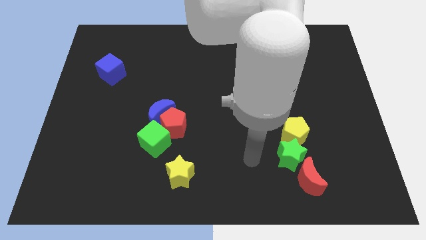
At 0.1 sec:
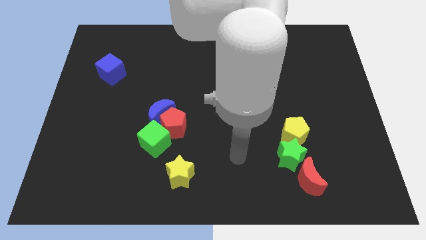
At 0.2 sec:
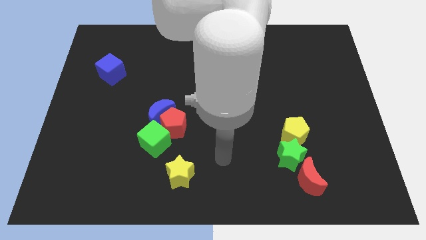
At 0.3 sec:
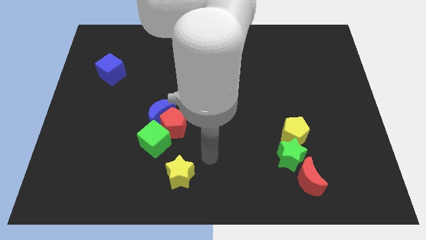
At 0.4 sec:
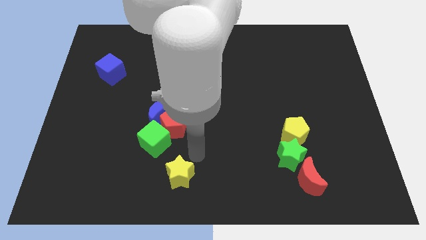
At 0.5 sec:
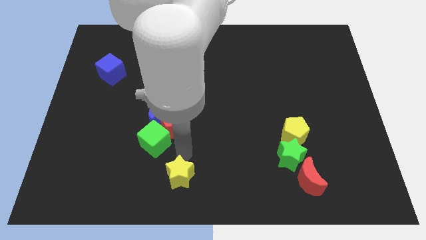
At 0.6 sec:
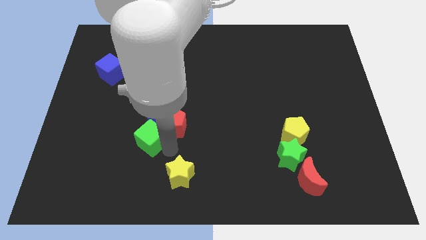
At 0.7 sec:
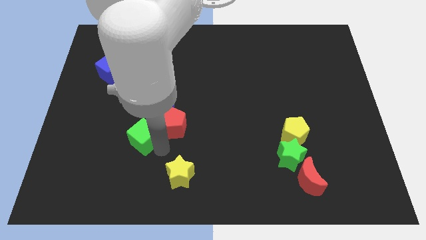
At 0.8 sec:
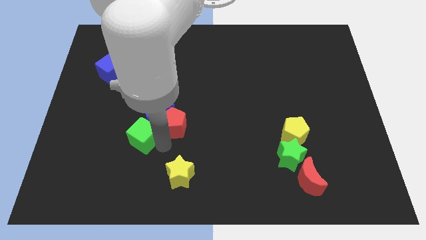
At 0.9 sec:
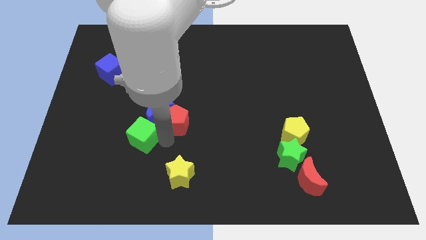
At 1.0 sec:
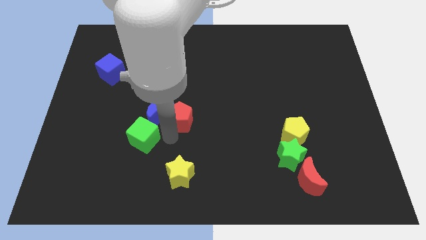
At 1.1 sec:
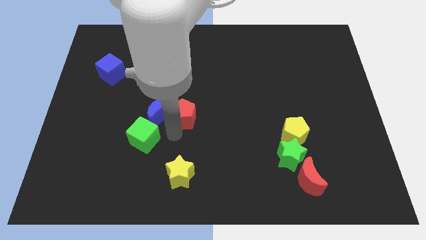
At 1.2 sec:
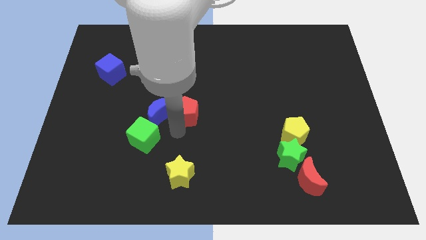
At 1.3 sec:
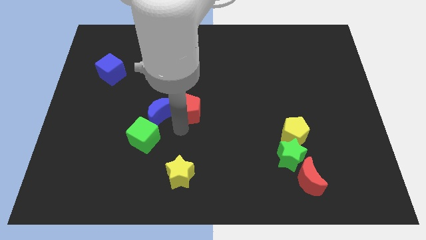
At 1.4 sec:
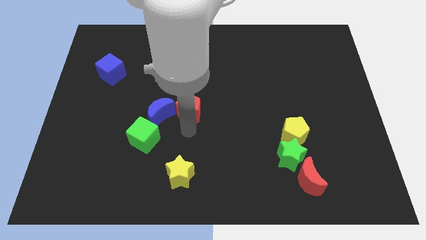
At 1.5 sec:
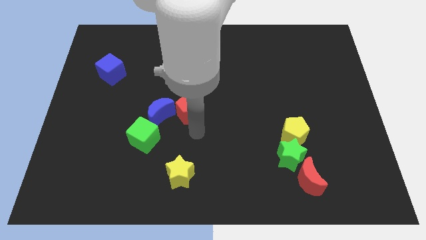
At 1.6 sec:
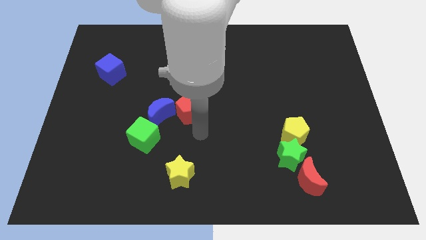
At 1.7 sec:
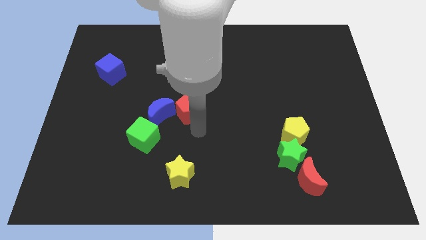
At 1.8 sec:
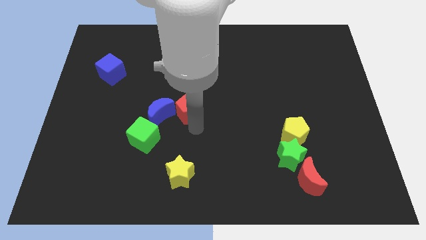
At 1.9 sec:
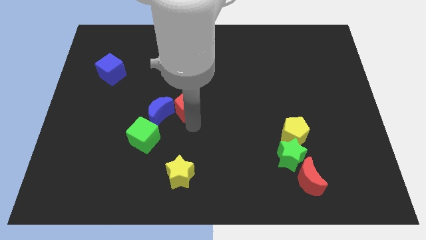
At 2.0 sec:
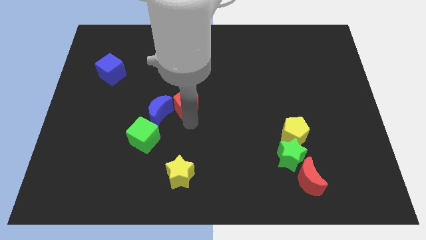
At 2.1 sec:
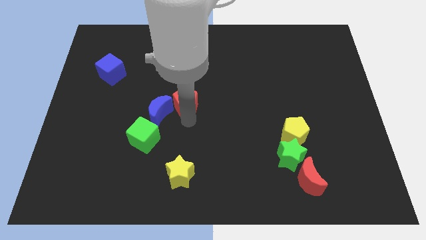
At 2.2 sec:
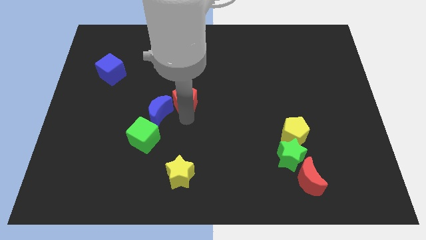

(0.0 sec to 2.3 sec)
push the red pentagon a little bit upwards

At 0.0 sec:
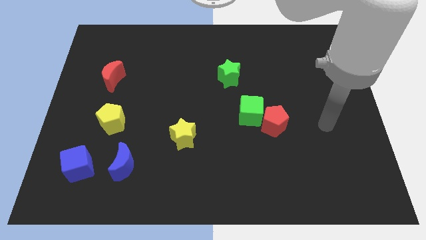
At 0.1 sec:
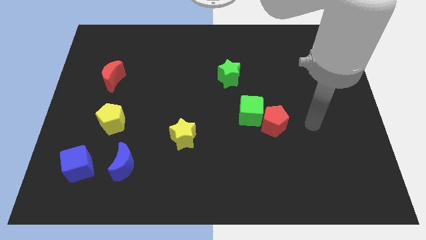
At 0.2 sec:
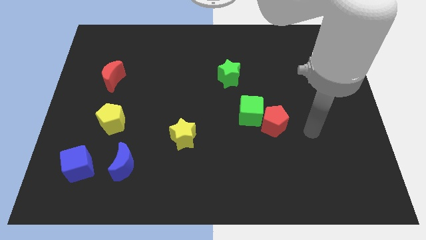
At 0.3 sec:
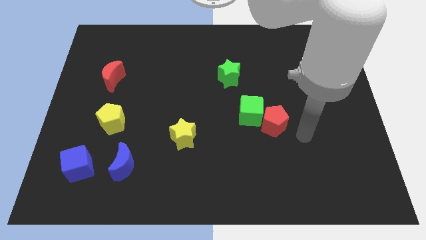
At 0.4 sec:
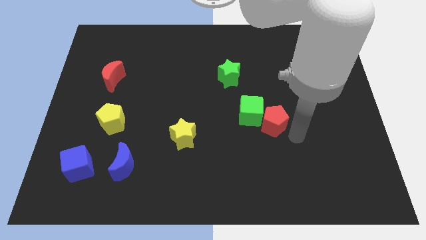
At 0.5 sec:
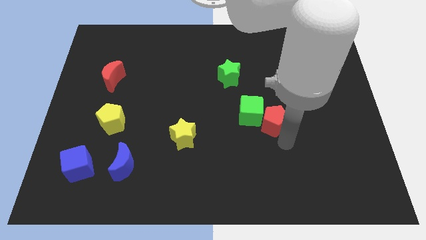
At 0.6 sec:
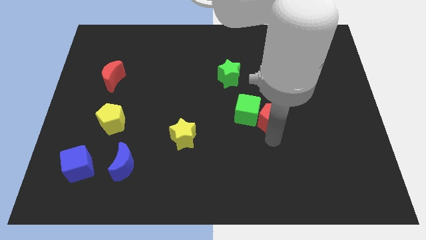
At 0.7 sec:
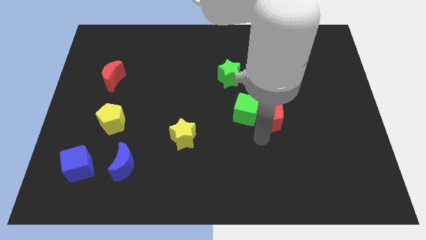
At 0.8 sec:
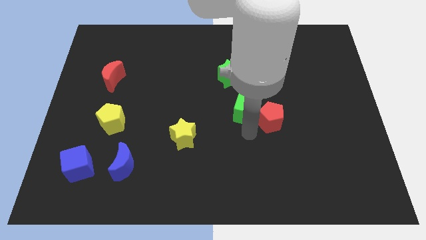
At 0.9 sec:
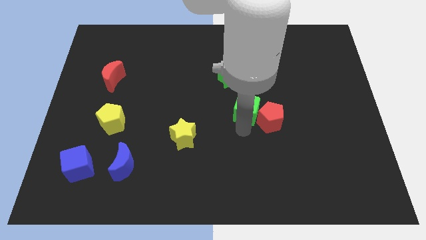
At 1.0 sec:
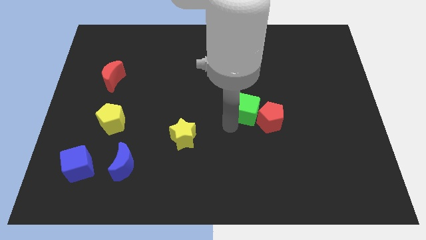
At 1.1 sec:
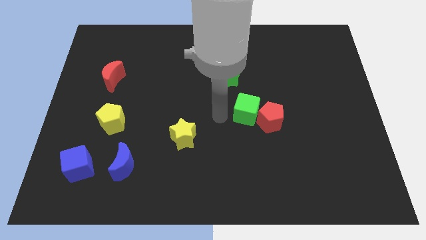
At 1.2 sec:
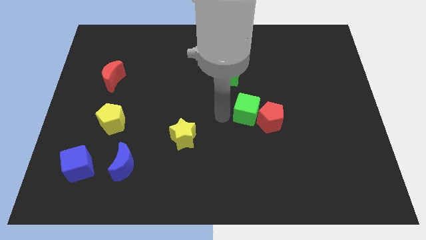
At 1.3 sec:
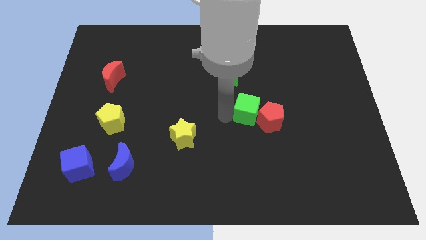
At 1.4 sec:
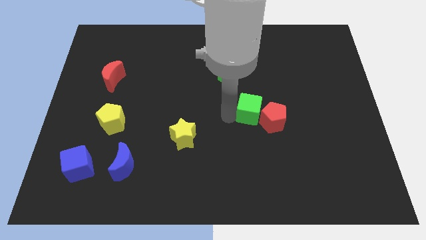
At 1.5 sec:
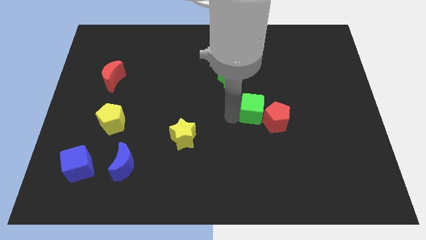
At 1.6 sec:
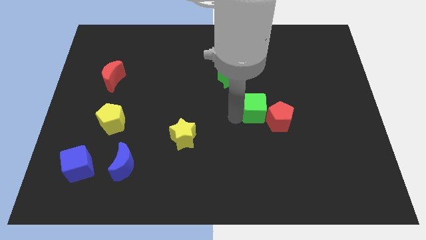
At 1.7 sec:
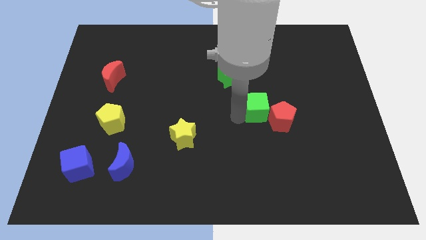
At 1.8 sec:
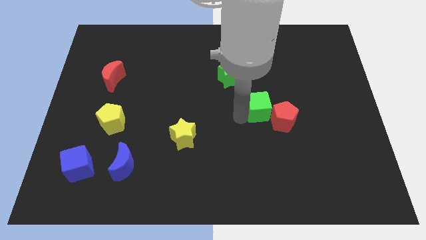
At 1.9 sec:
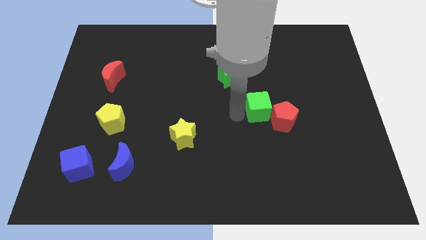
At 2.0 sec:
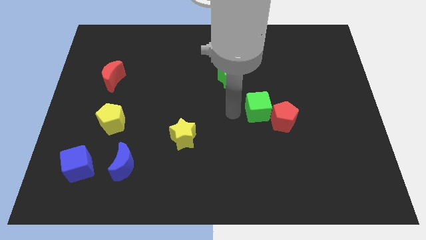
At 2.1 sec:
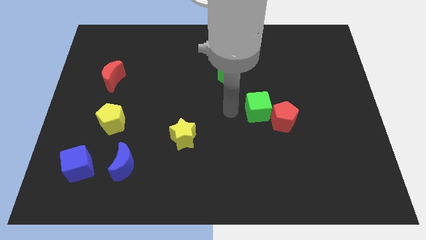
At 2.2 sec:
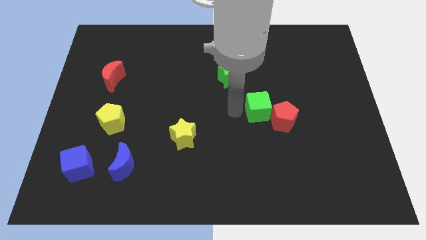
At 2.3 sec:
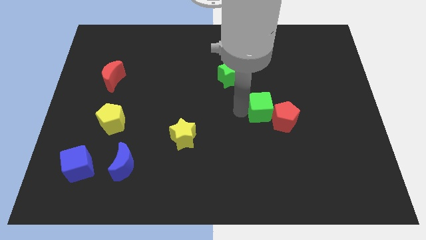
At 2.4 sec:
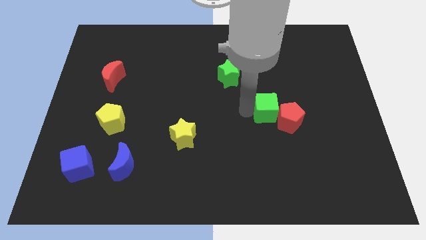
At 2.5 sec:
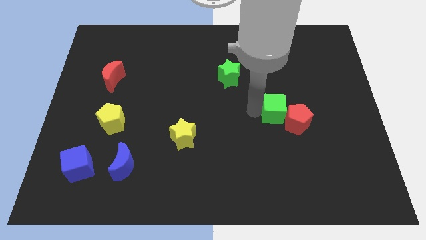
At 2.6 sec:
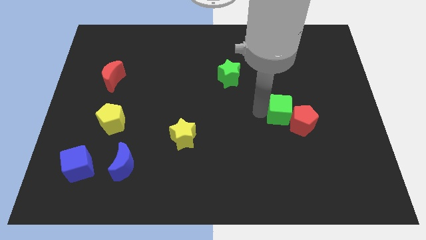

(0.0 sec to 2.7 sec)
slide the green cube a little right

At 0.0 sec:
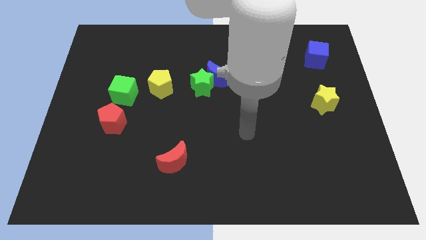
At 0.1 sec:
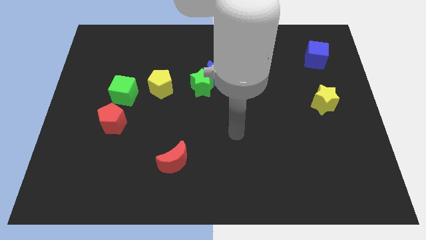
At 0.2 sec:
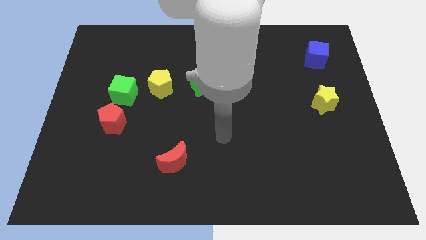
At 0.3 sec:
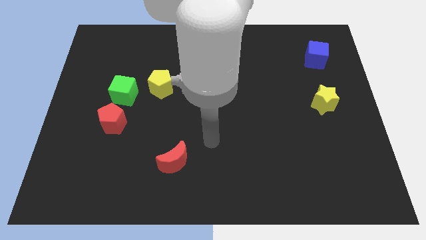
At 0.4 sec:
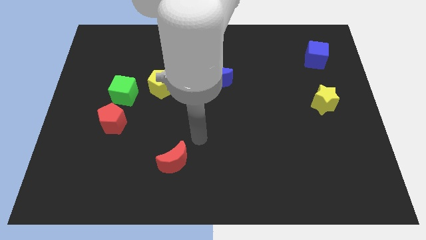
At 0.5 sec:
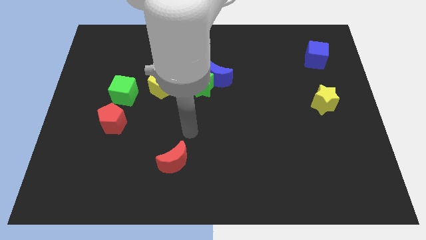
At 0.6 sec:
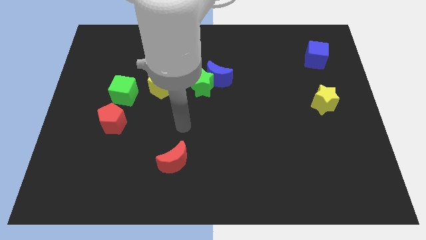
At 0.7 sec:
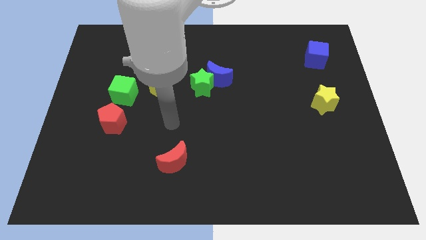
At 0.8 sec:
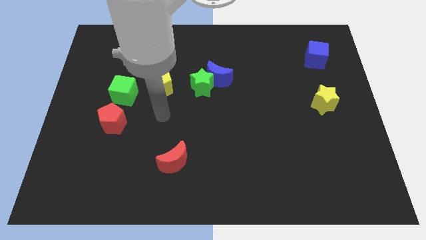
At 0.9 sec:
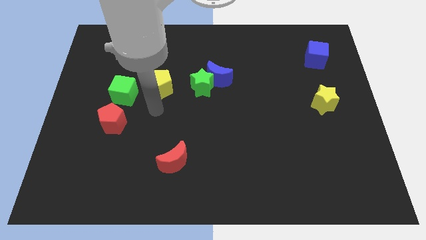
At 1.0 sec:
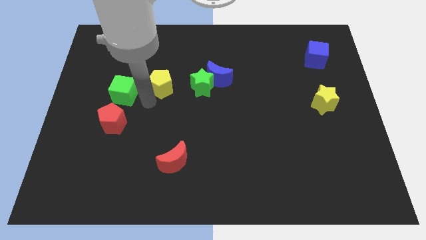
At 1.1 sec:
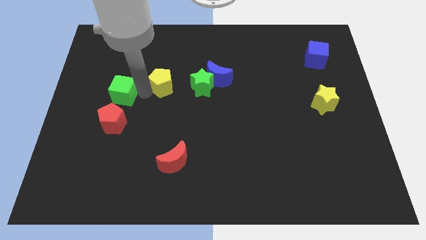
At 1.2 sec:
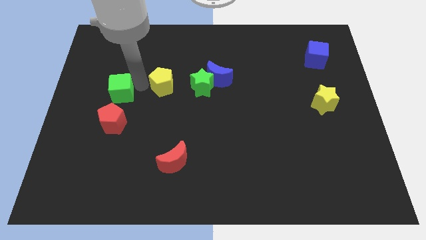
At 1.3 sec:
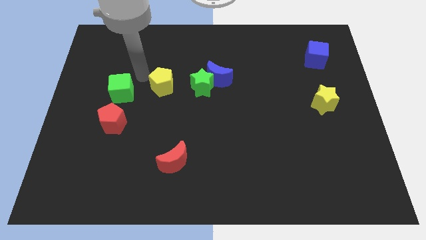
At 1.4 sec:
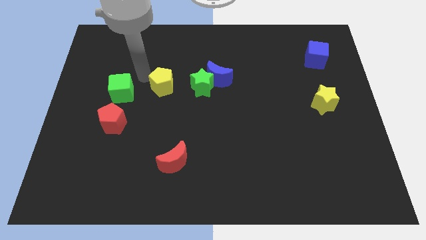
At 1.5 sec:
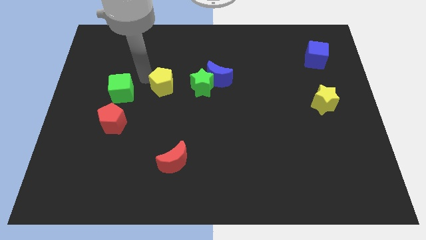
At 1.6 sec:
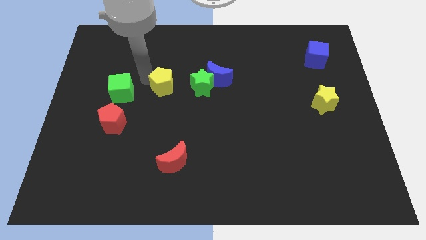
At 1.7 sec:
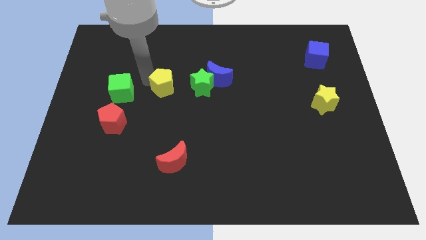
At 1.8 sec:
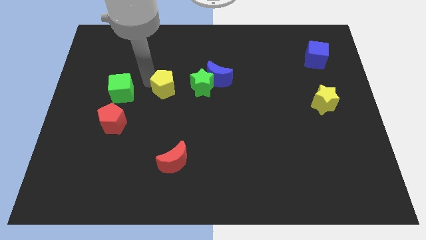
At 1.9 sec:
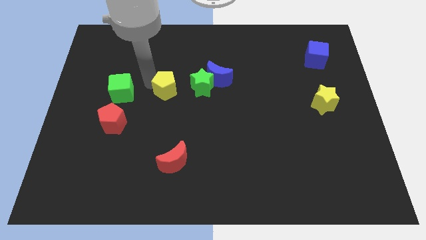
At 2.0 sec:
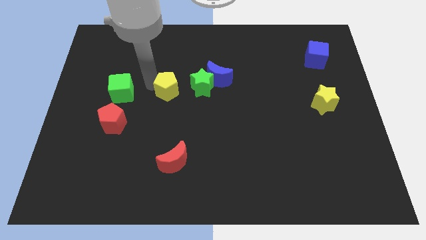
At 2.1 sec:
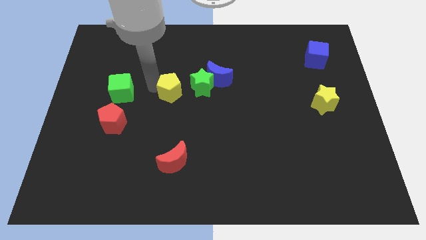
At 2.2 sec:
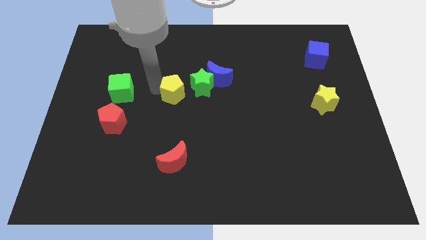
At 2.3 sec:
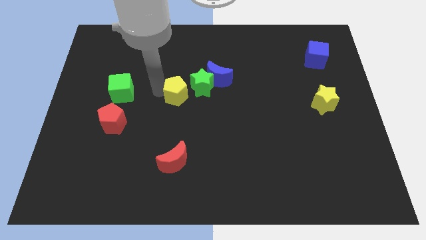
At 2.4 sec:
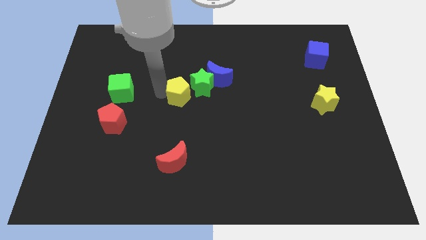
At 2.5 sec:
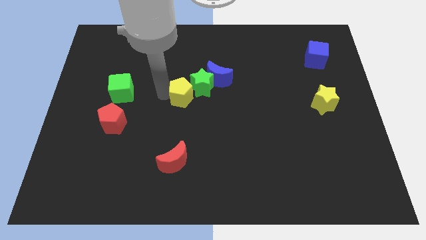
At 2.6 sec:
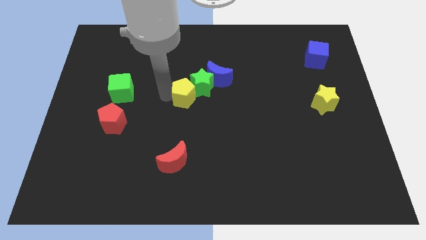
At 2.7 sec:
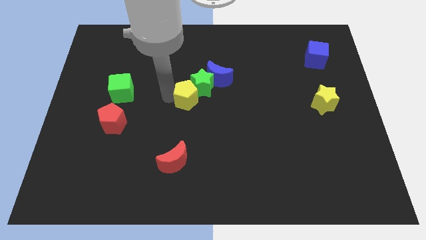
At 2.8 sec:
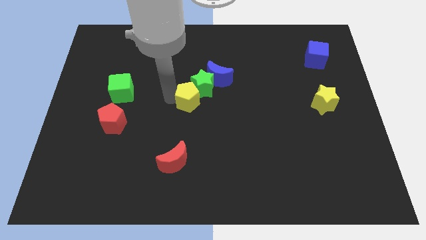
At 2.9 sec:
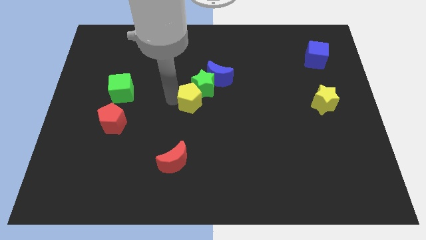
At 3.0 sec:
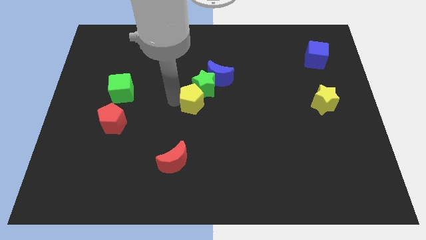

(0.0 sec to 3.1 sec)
push the yellow pentagon somewhat right
